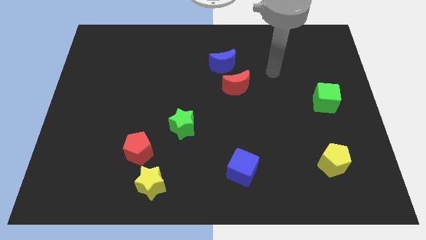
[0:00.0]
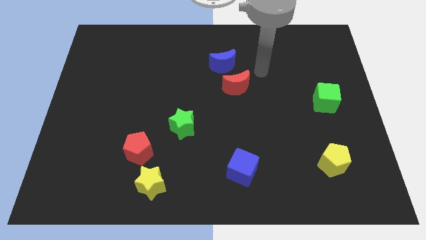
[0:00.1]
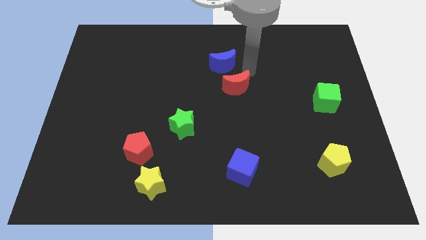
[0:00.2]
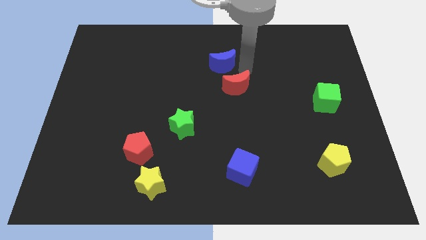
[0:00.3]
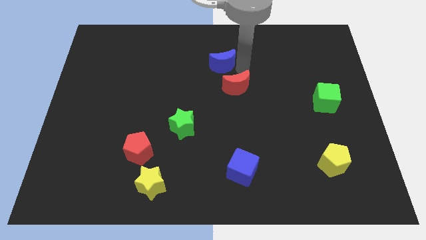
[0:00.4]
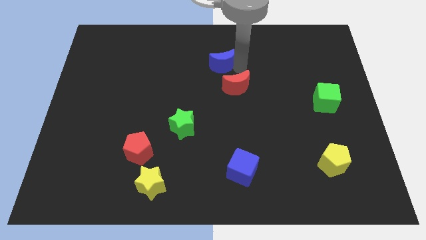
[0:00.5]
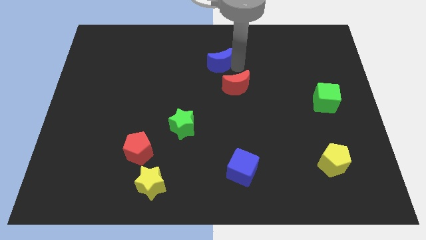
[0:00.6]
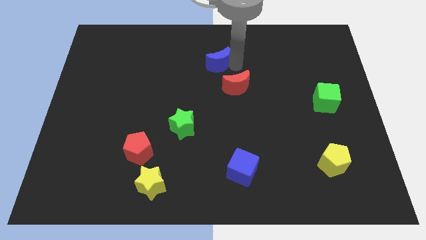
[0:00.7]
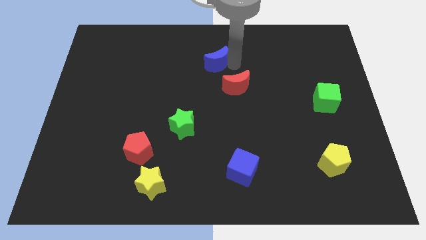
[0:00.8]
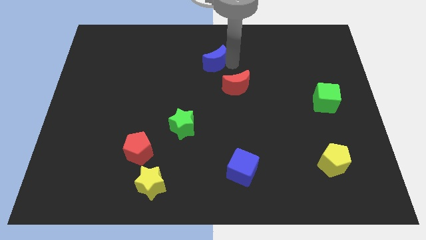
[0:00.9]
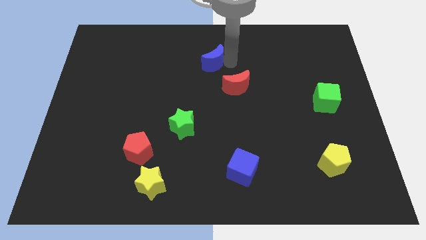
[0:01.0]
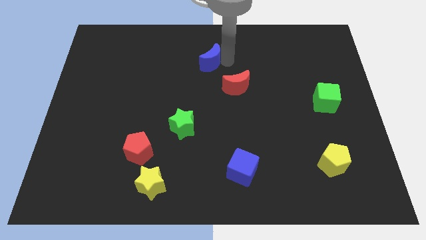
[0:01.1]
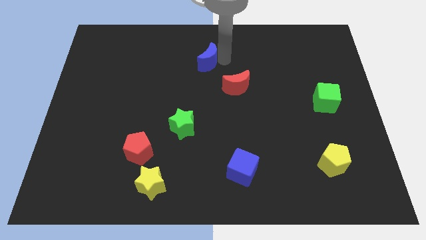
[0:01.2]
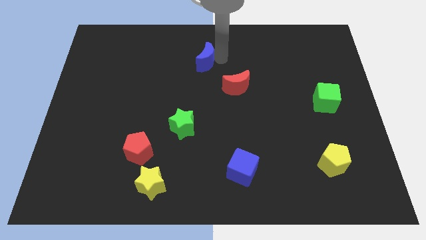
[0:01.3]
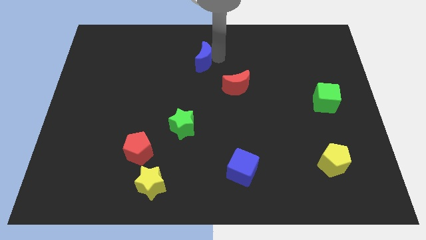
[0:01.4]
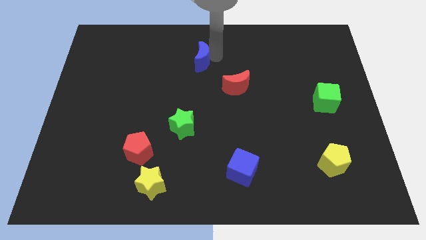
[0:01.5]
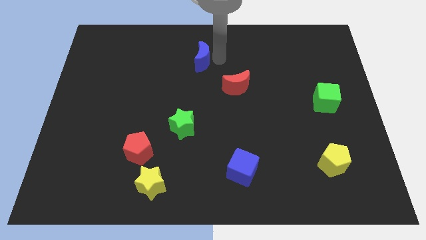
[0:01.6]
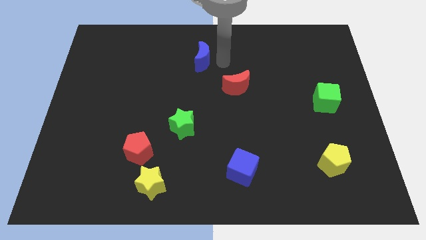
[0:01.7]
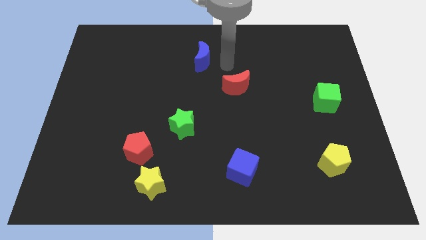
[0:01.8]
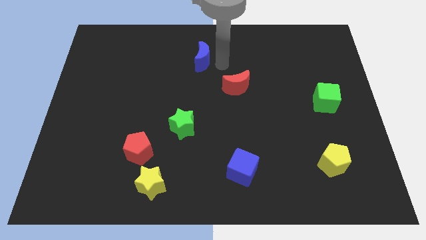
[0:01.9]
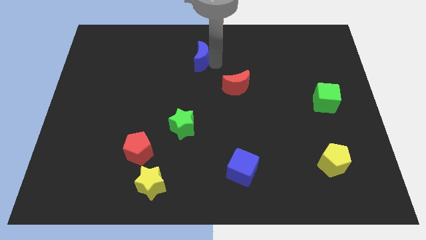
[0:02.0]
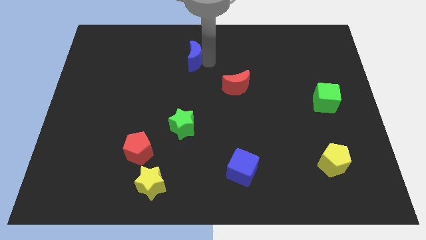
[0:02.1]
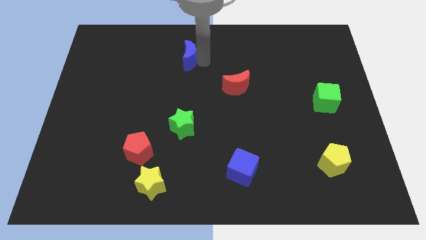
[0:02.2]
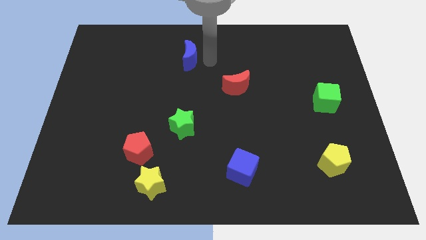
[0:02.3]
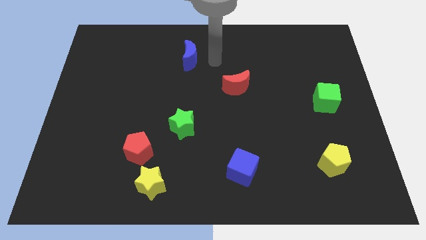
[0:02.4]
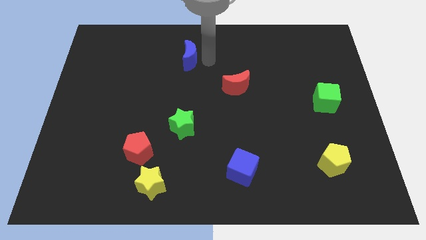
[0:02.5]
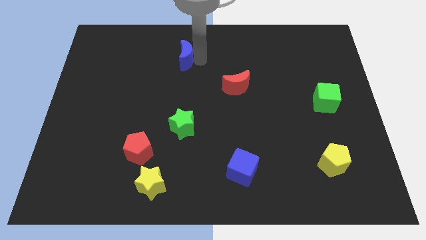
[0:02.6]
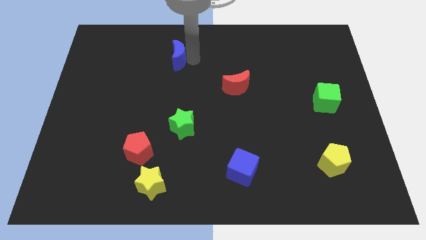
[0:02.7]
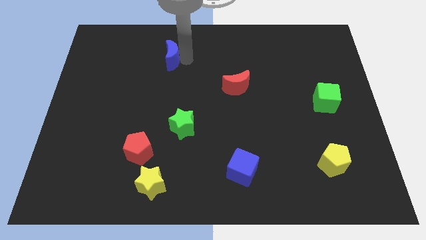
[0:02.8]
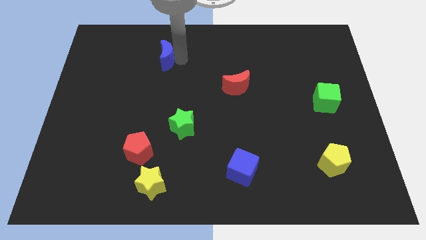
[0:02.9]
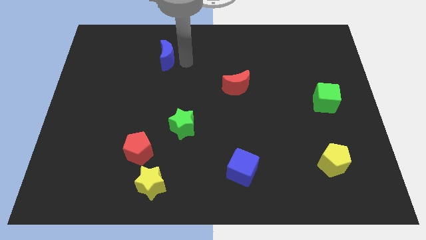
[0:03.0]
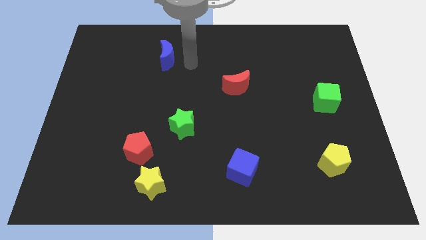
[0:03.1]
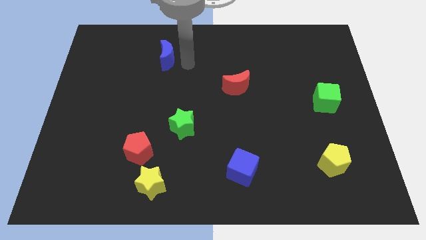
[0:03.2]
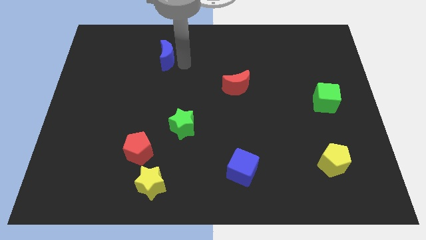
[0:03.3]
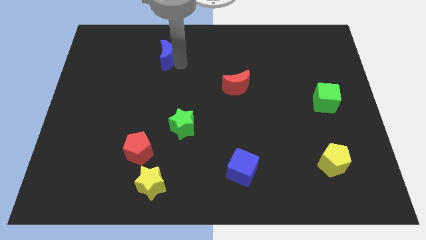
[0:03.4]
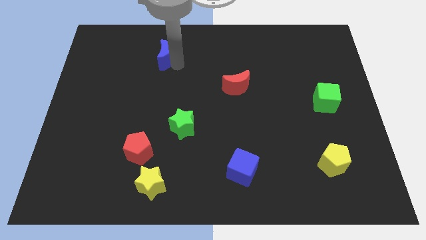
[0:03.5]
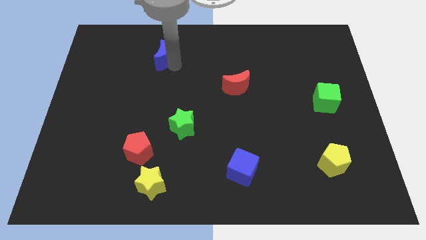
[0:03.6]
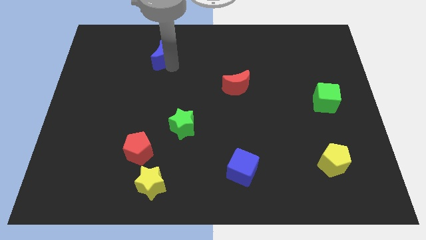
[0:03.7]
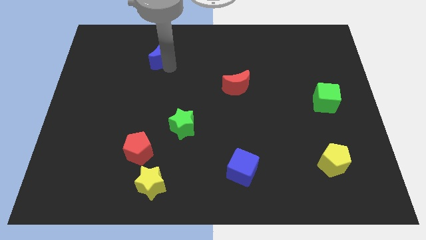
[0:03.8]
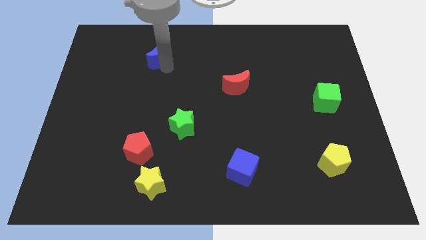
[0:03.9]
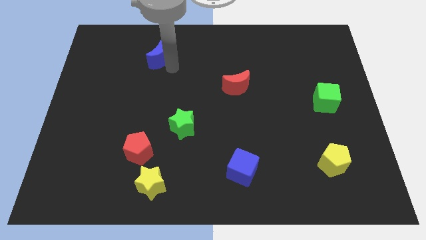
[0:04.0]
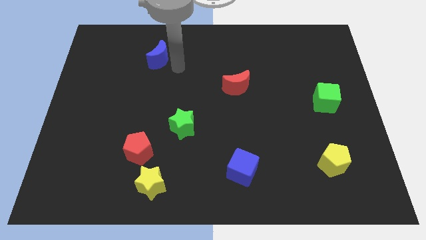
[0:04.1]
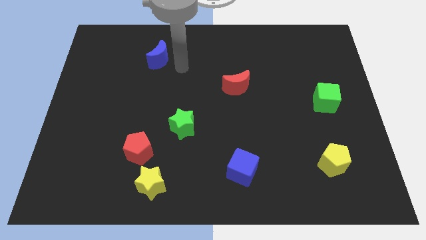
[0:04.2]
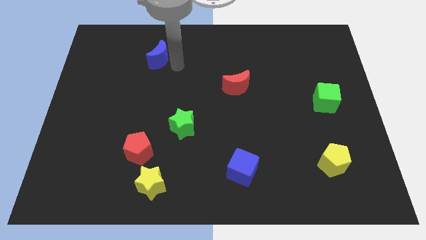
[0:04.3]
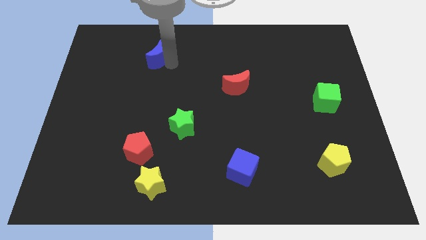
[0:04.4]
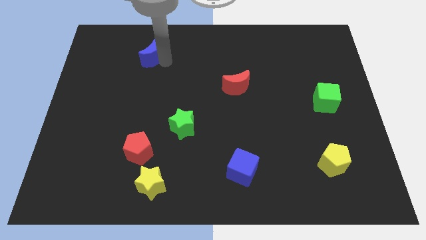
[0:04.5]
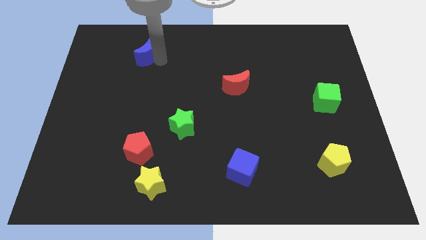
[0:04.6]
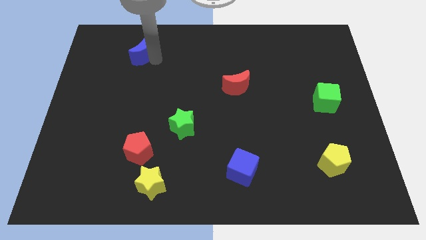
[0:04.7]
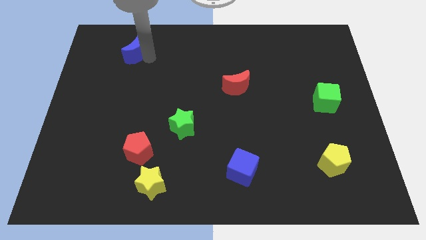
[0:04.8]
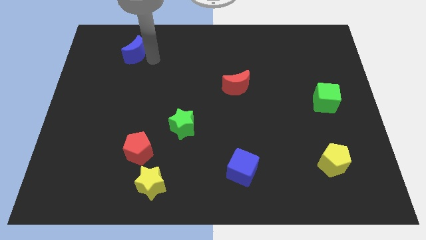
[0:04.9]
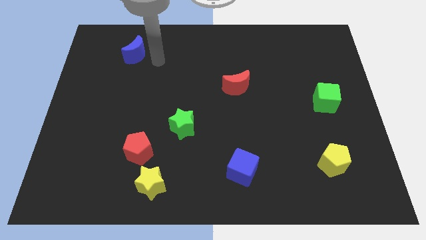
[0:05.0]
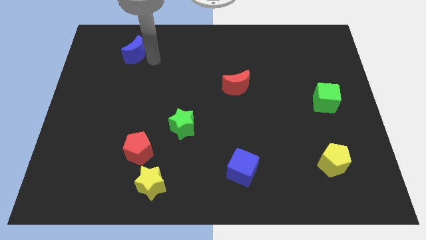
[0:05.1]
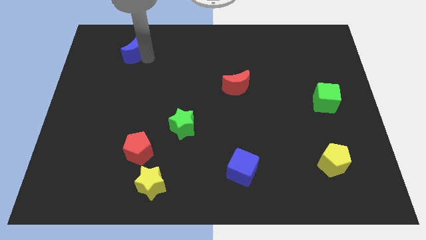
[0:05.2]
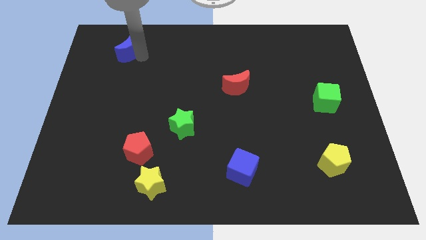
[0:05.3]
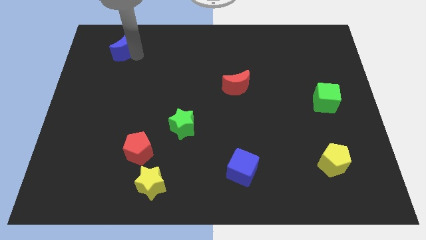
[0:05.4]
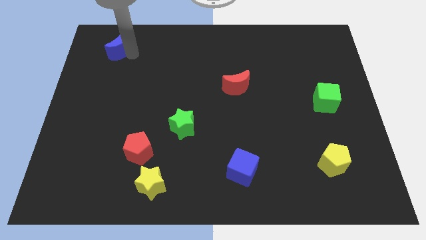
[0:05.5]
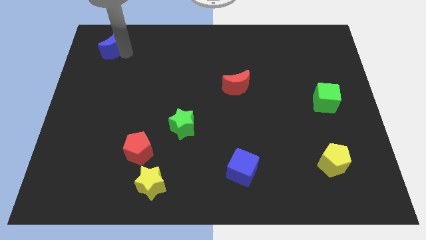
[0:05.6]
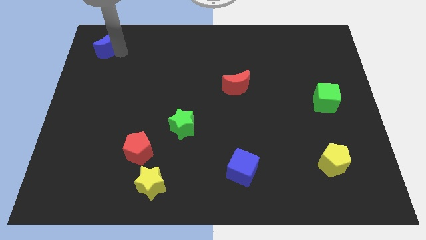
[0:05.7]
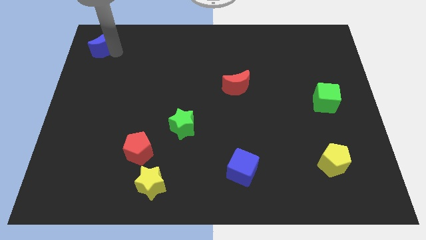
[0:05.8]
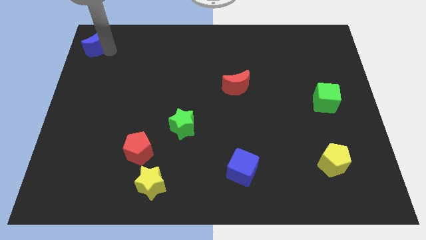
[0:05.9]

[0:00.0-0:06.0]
slide the blue moon to the upper left corner
